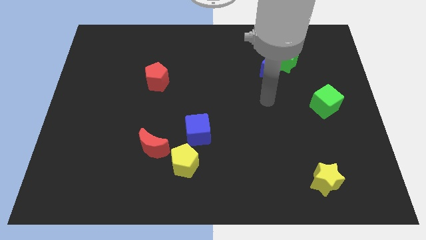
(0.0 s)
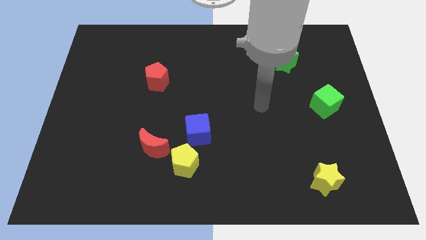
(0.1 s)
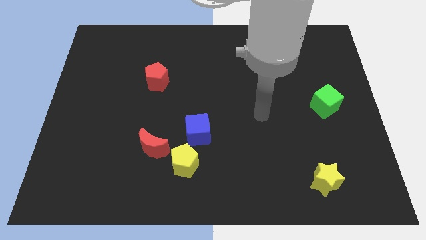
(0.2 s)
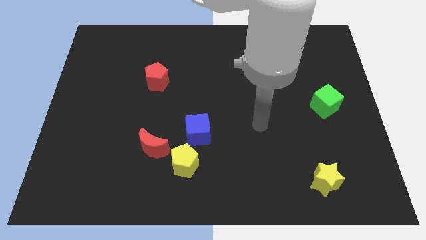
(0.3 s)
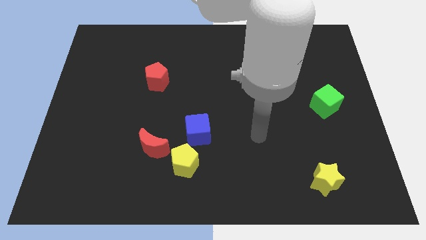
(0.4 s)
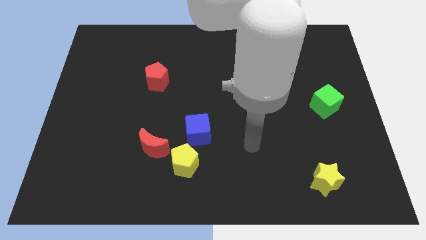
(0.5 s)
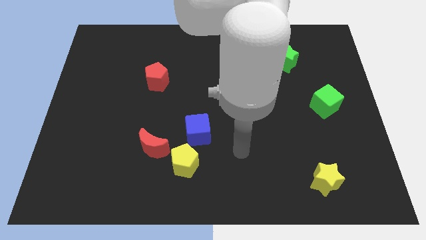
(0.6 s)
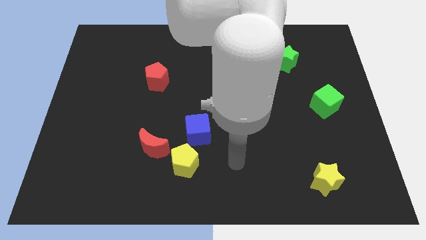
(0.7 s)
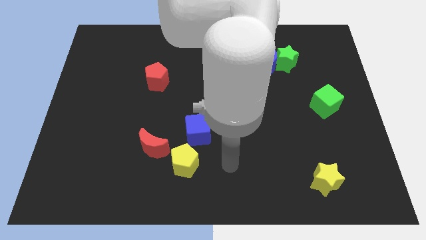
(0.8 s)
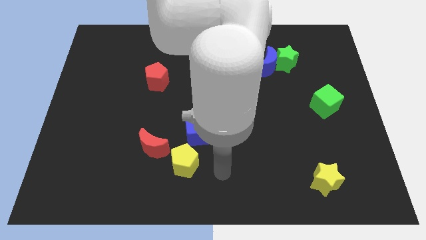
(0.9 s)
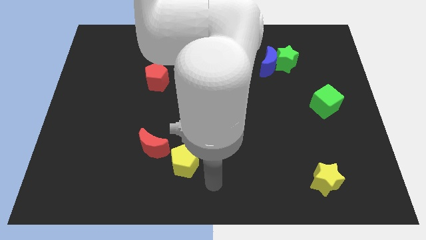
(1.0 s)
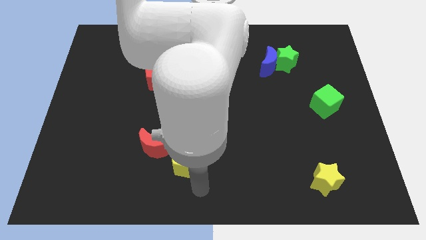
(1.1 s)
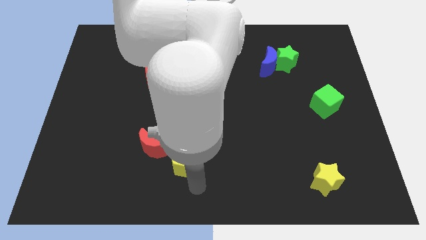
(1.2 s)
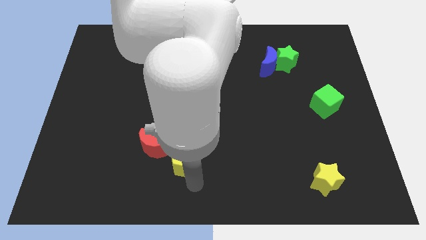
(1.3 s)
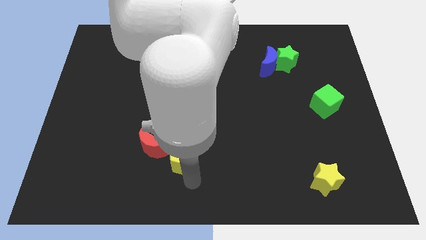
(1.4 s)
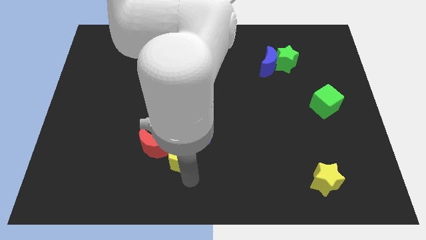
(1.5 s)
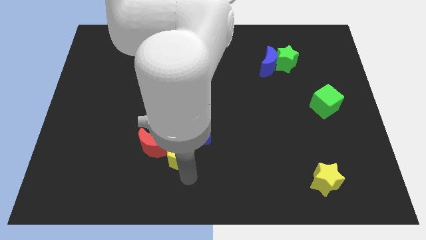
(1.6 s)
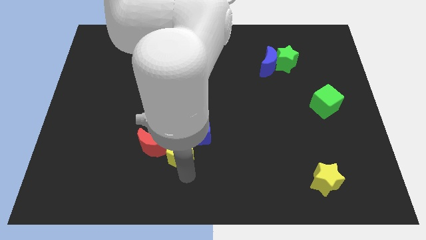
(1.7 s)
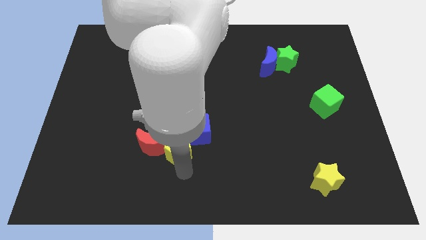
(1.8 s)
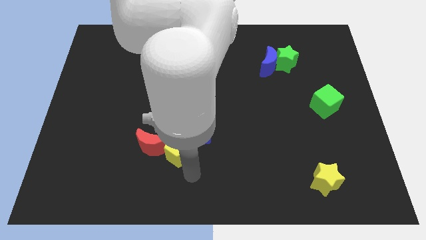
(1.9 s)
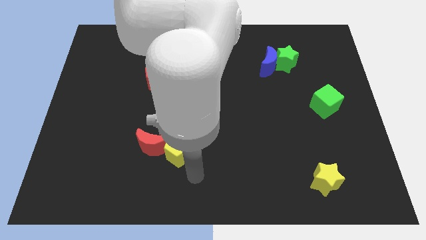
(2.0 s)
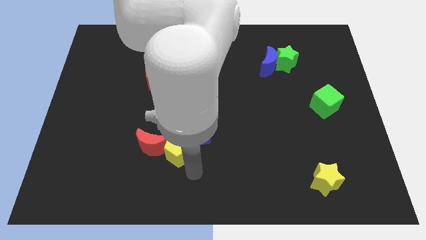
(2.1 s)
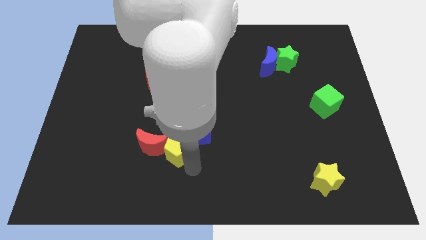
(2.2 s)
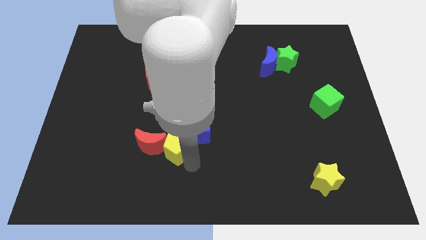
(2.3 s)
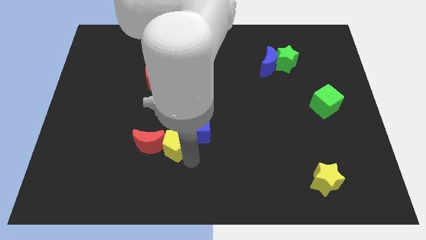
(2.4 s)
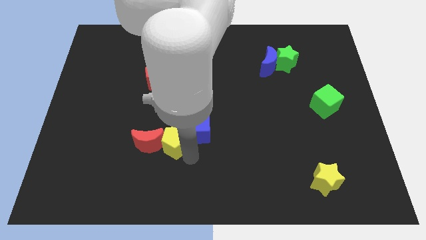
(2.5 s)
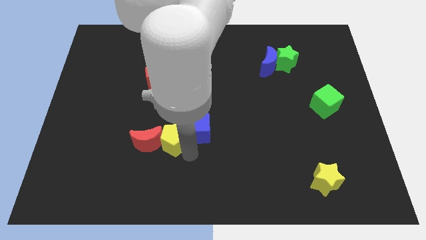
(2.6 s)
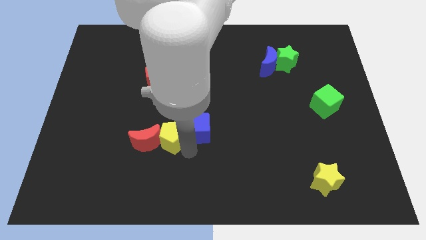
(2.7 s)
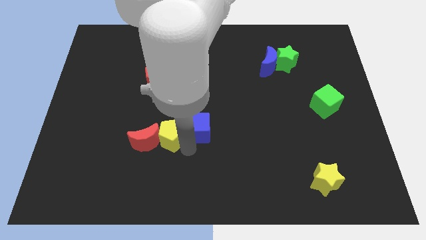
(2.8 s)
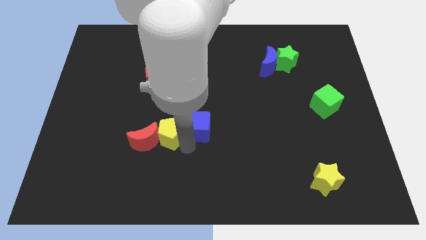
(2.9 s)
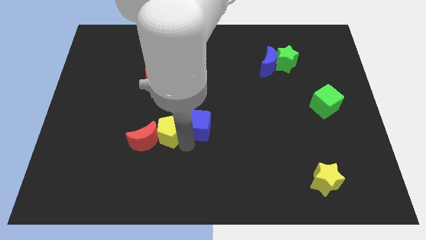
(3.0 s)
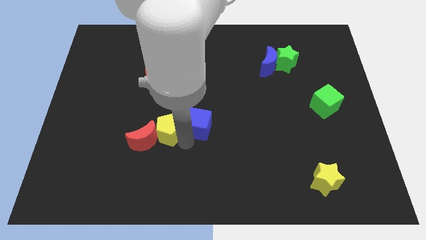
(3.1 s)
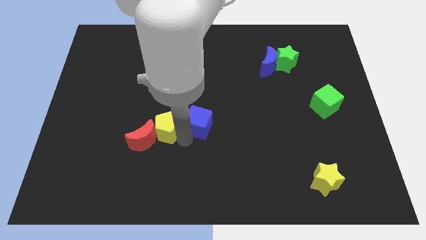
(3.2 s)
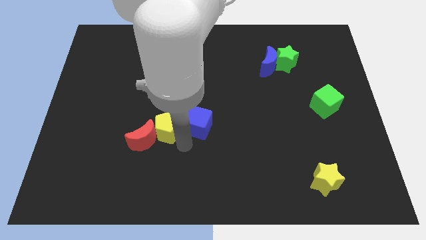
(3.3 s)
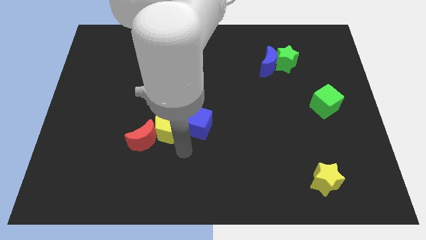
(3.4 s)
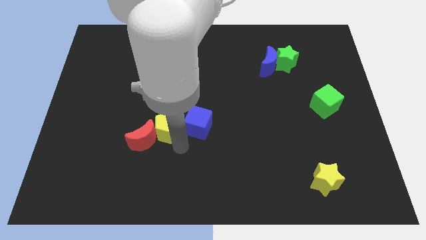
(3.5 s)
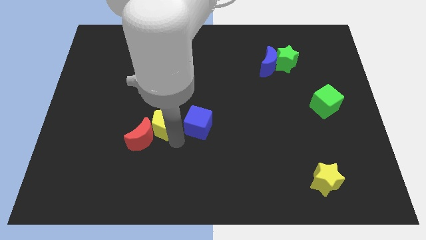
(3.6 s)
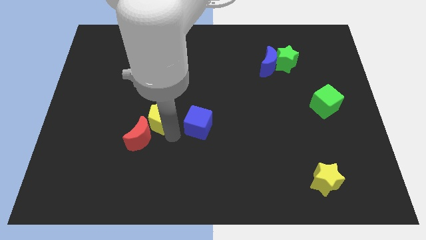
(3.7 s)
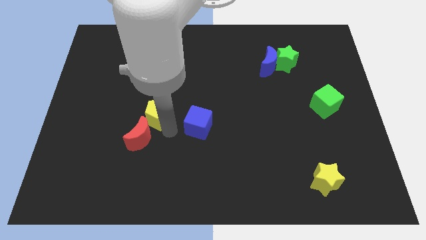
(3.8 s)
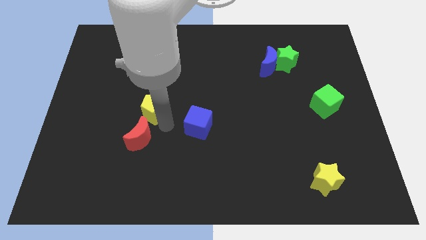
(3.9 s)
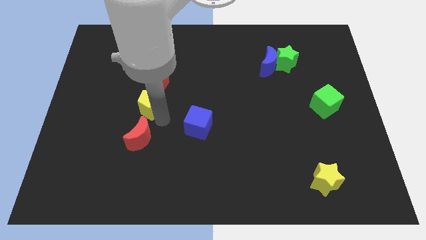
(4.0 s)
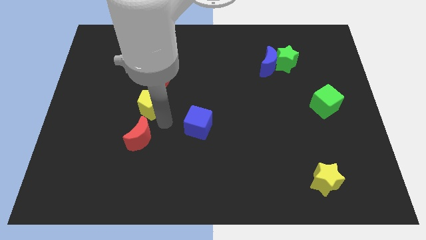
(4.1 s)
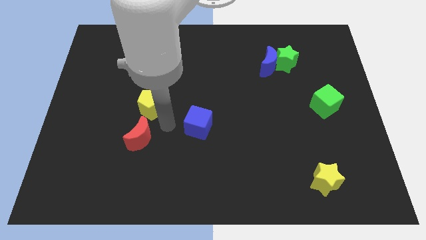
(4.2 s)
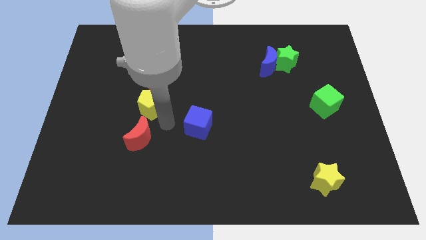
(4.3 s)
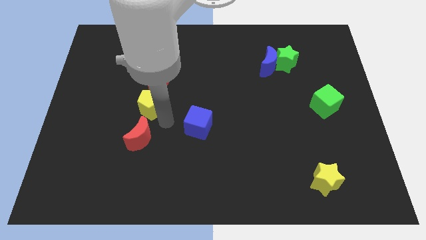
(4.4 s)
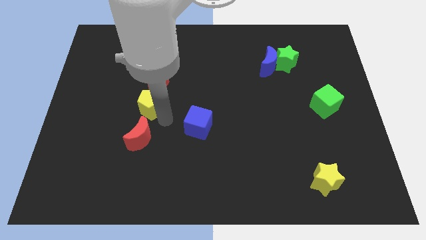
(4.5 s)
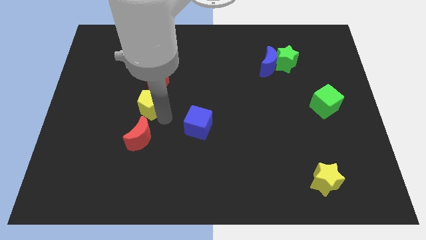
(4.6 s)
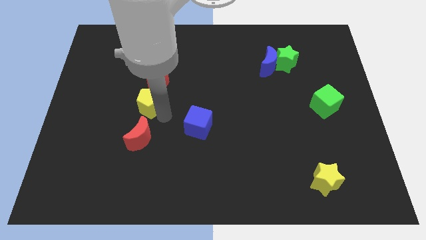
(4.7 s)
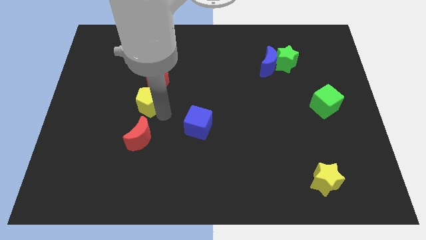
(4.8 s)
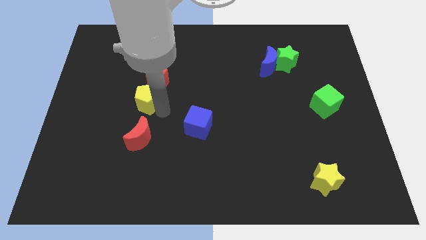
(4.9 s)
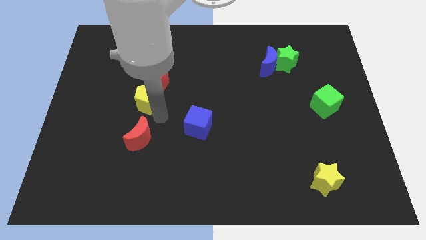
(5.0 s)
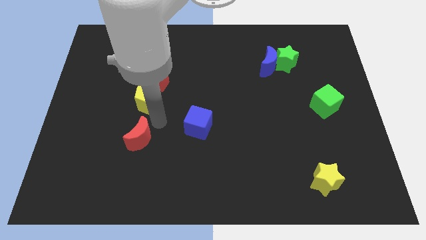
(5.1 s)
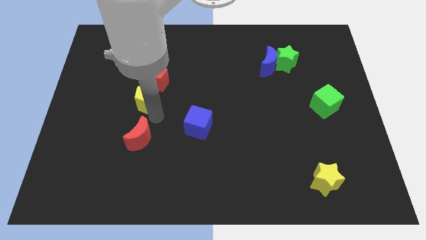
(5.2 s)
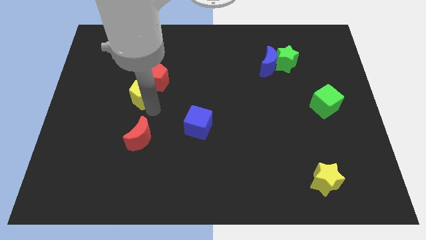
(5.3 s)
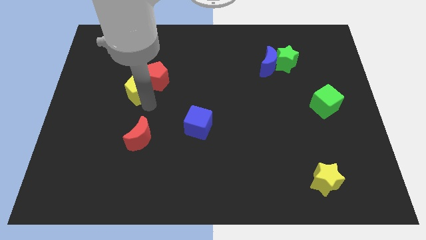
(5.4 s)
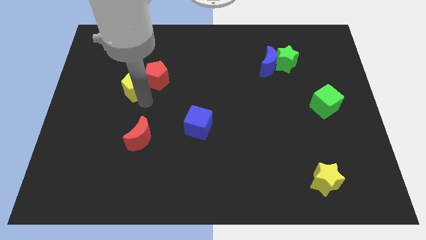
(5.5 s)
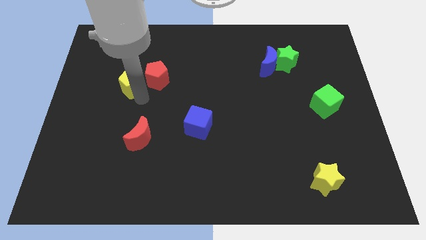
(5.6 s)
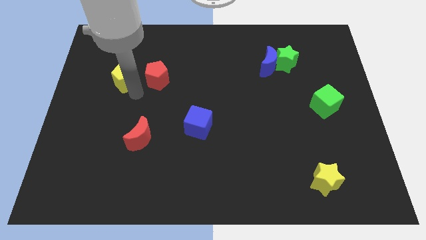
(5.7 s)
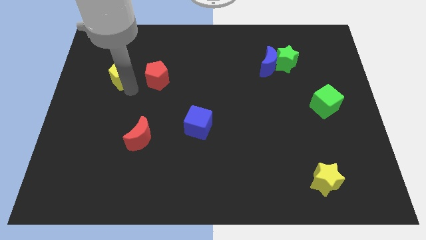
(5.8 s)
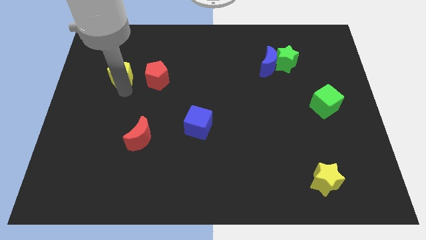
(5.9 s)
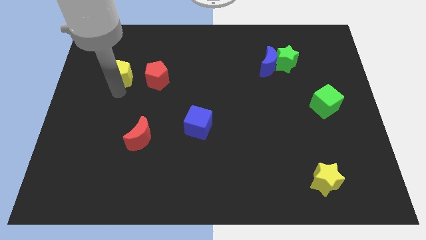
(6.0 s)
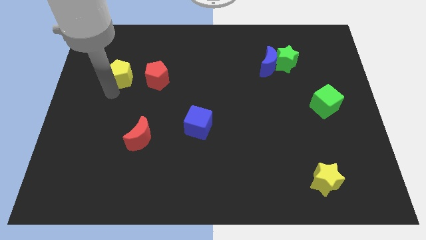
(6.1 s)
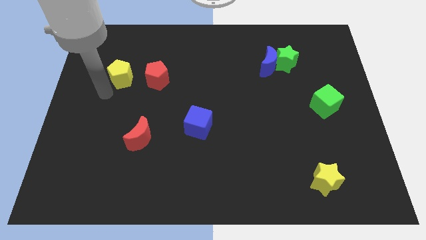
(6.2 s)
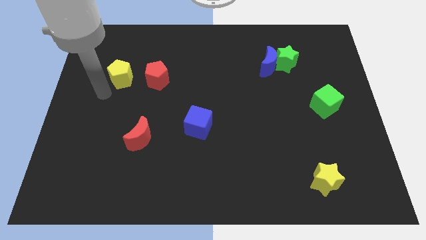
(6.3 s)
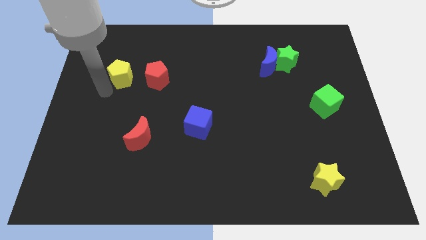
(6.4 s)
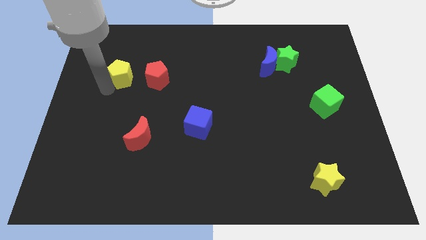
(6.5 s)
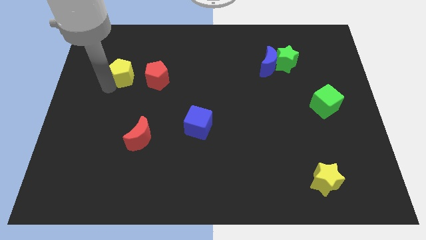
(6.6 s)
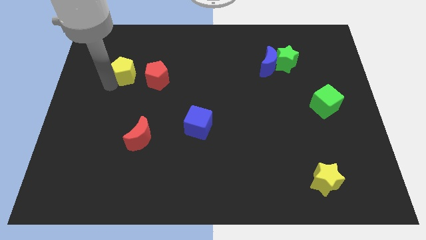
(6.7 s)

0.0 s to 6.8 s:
put the yellow pentagon to the top left of the red pentagon

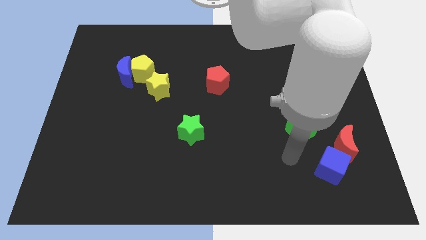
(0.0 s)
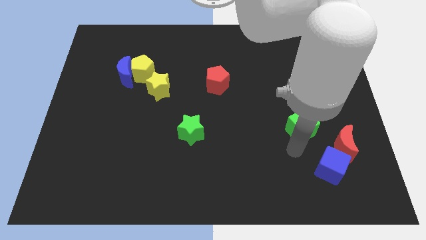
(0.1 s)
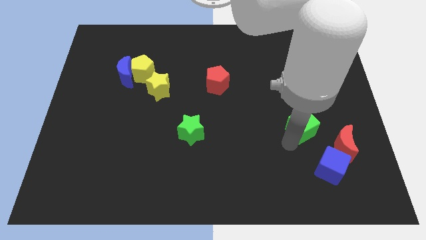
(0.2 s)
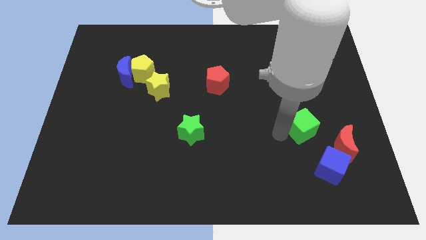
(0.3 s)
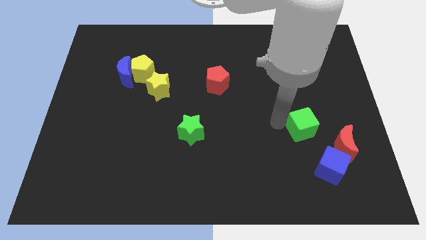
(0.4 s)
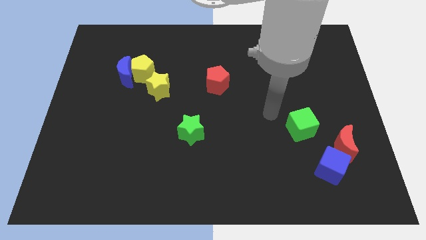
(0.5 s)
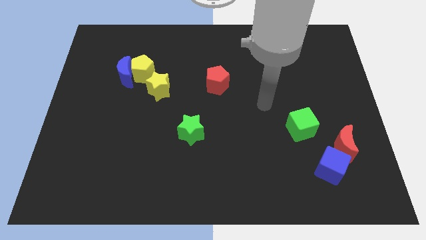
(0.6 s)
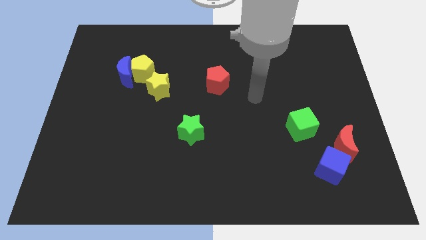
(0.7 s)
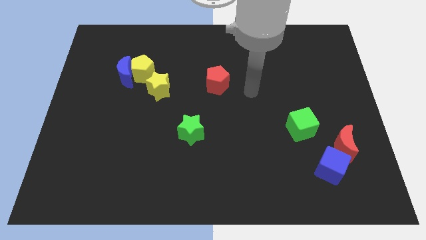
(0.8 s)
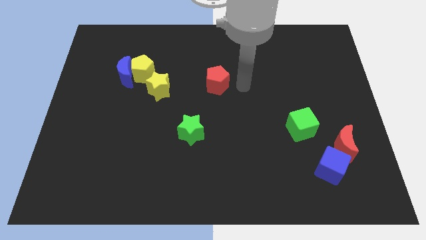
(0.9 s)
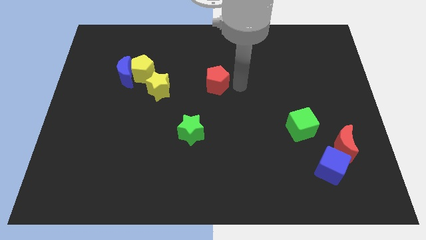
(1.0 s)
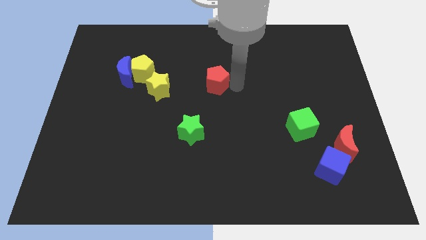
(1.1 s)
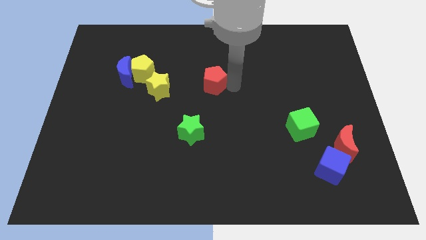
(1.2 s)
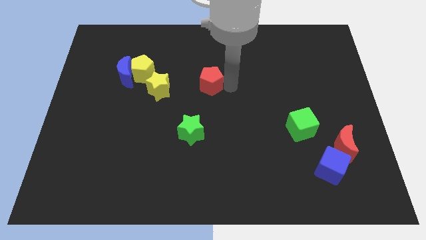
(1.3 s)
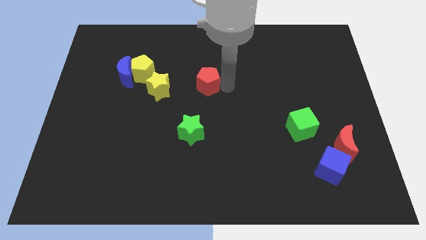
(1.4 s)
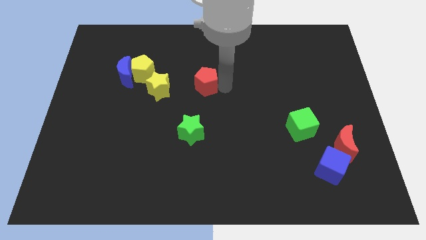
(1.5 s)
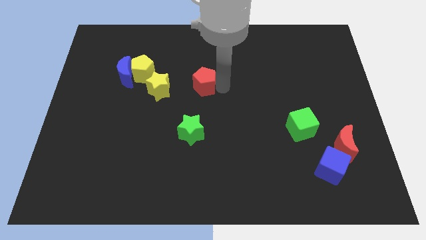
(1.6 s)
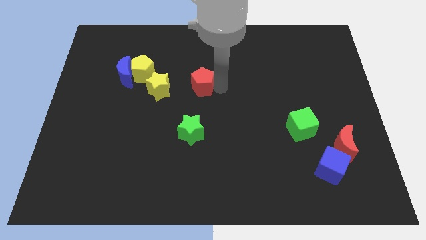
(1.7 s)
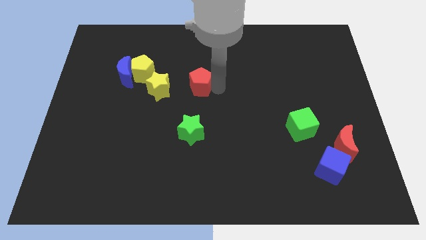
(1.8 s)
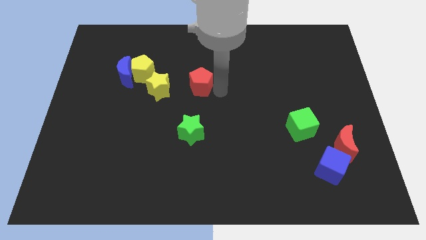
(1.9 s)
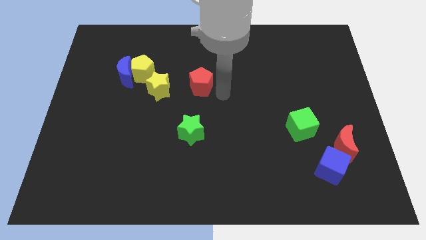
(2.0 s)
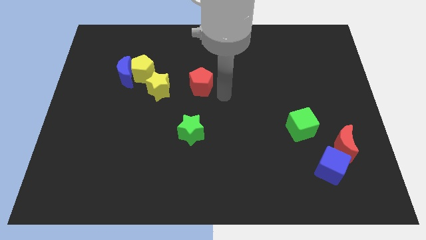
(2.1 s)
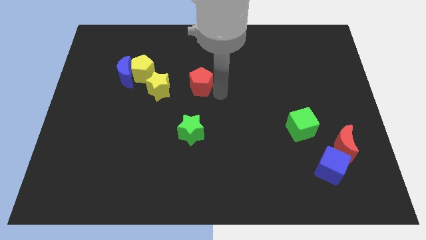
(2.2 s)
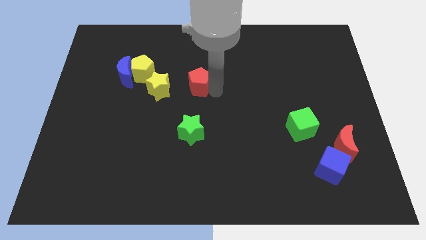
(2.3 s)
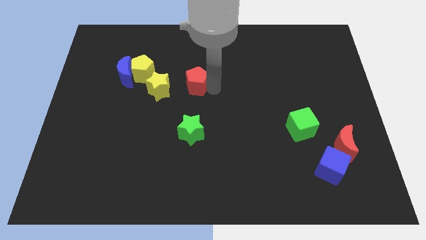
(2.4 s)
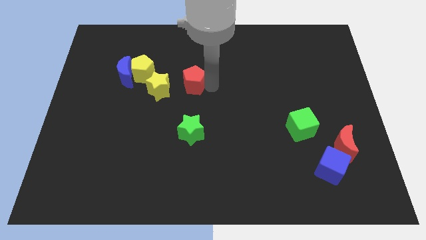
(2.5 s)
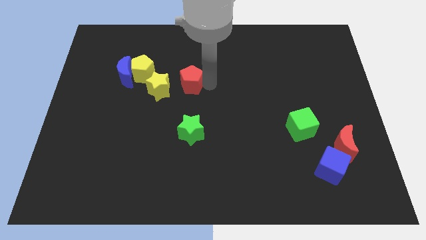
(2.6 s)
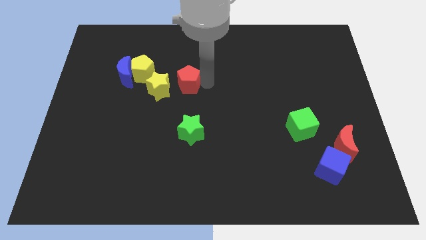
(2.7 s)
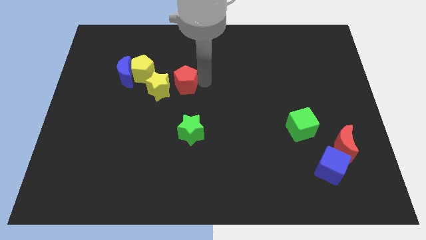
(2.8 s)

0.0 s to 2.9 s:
slide the red pentagon to the right of the blue moon
